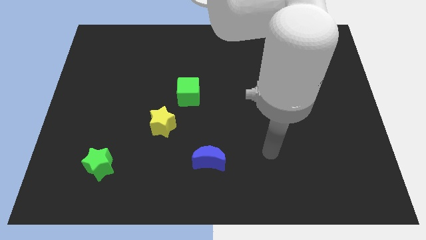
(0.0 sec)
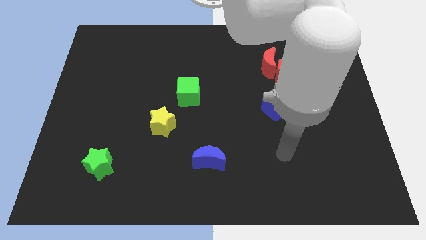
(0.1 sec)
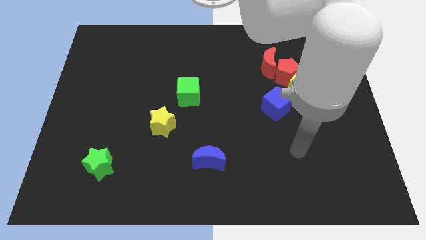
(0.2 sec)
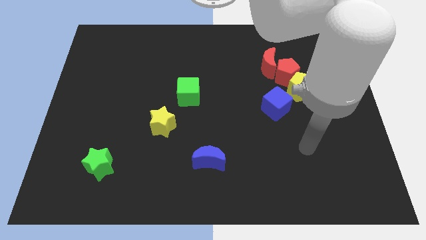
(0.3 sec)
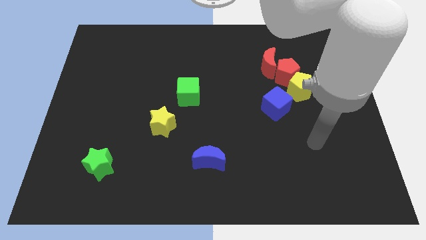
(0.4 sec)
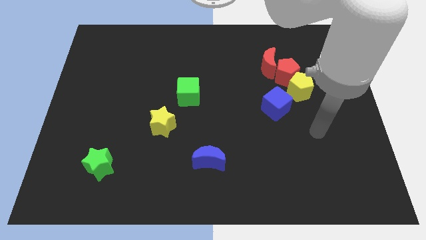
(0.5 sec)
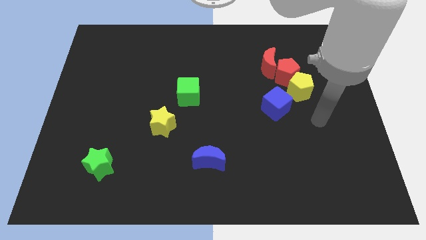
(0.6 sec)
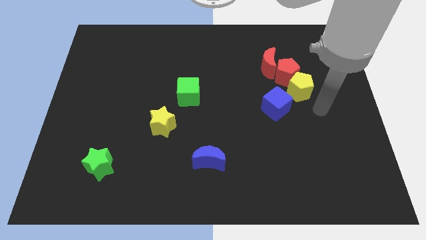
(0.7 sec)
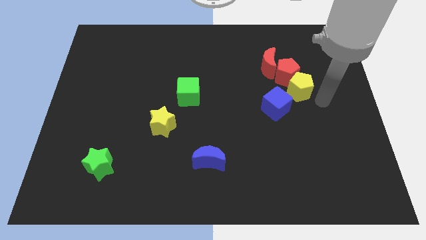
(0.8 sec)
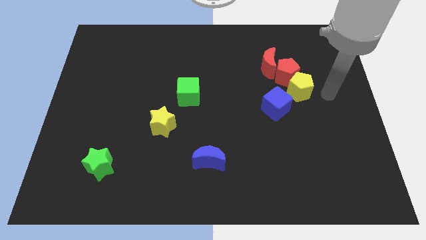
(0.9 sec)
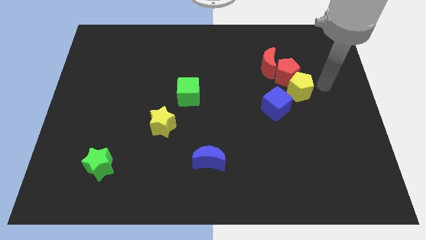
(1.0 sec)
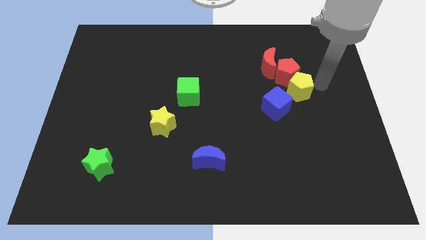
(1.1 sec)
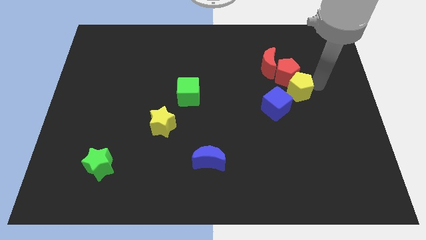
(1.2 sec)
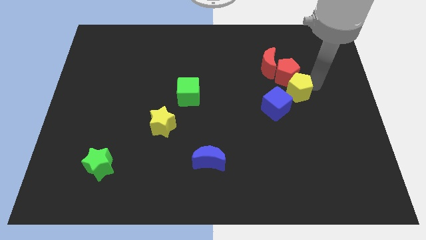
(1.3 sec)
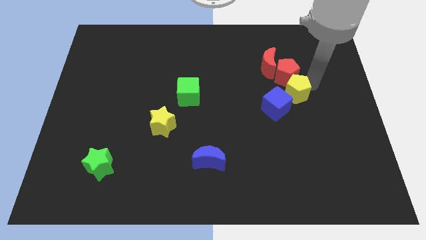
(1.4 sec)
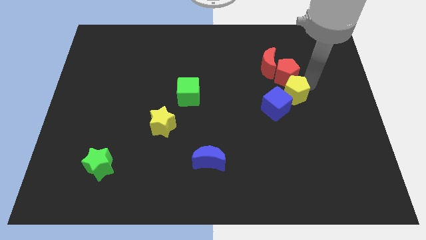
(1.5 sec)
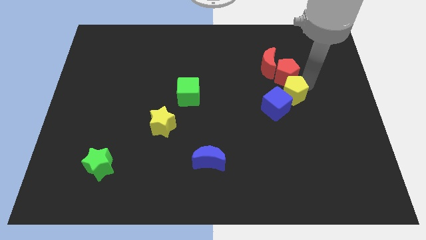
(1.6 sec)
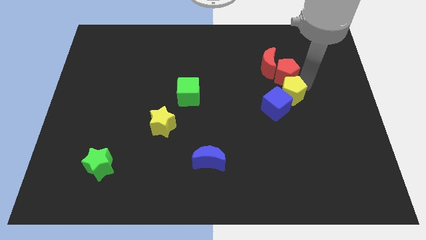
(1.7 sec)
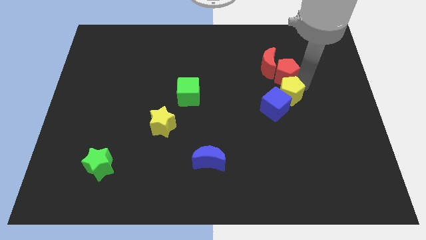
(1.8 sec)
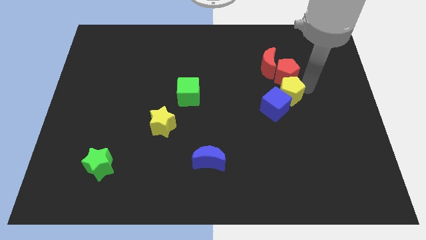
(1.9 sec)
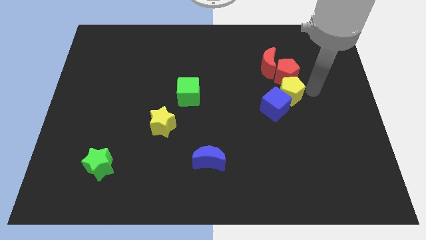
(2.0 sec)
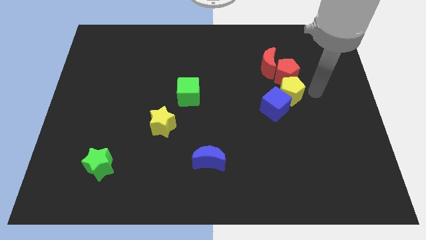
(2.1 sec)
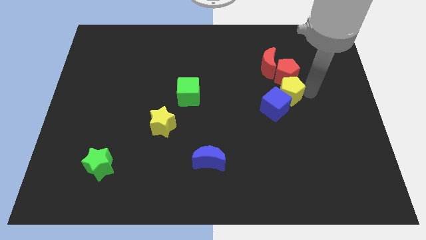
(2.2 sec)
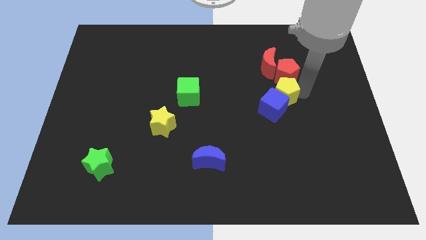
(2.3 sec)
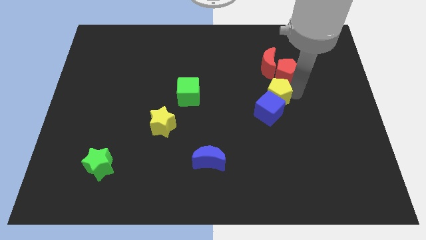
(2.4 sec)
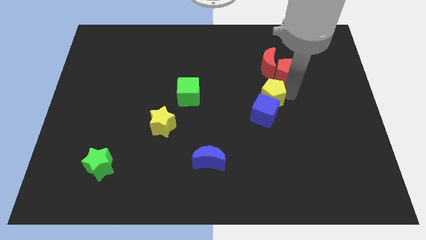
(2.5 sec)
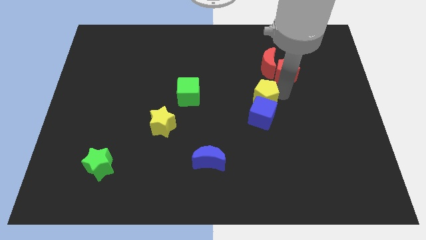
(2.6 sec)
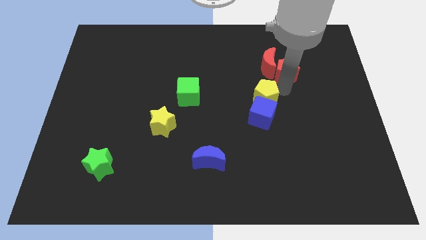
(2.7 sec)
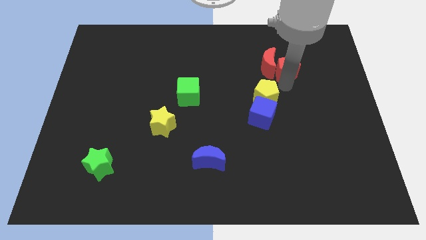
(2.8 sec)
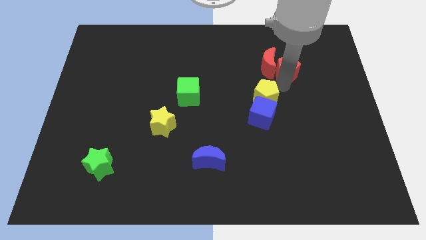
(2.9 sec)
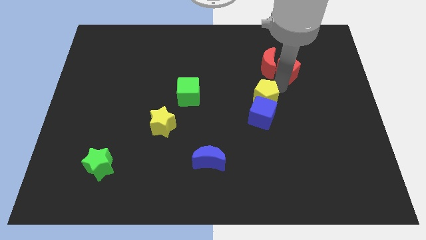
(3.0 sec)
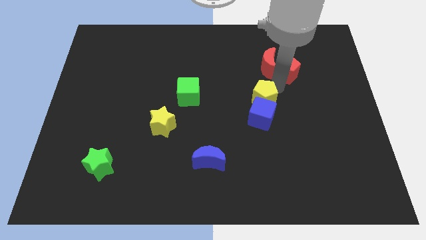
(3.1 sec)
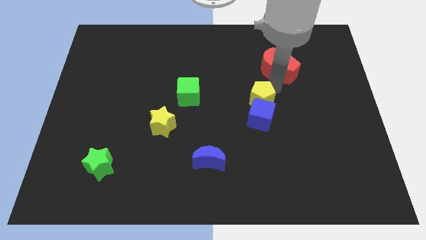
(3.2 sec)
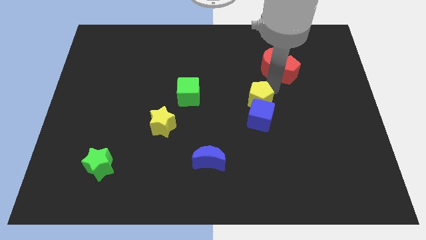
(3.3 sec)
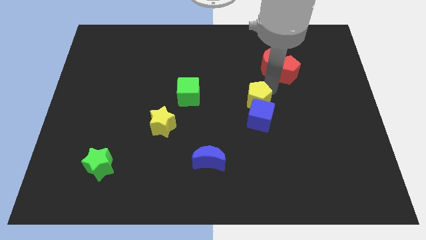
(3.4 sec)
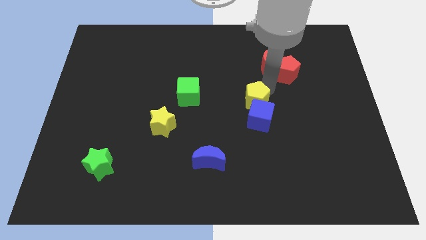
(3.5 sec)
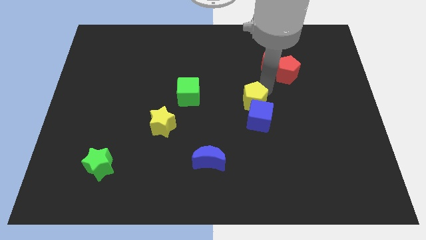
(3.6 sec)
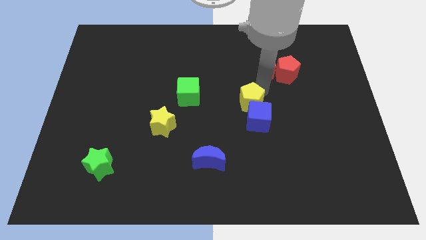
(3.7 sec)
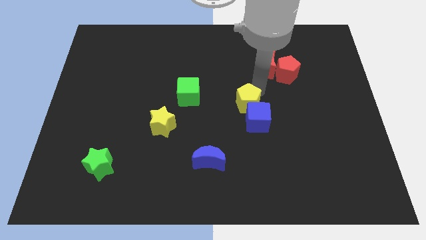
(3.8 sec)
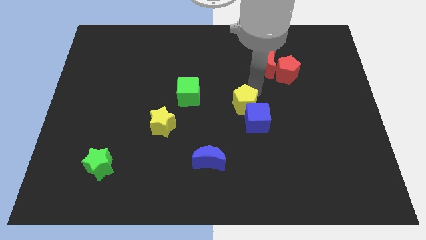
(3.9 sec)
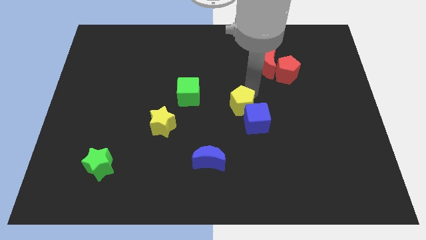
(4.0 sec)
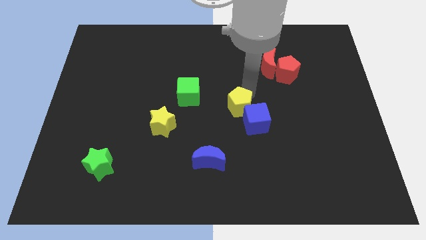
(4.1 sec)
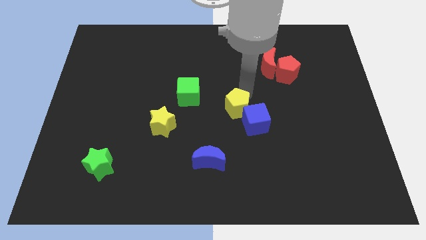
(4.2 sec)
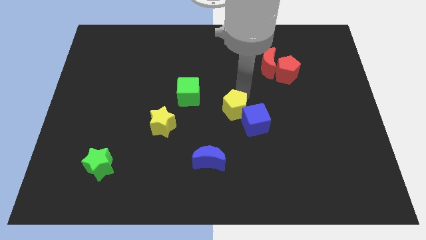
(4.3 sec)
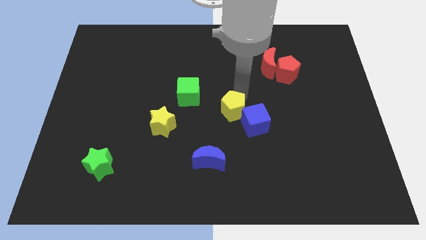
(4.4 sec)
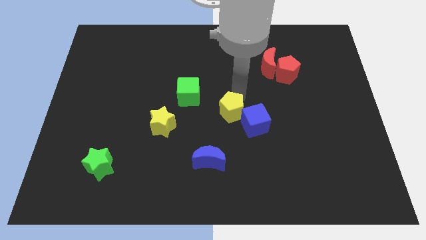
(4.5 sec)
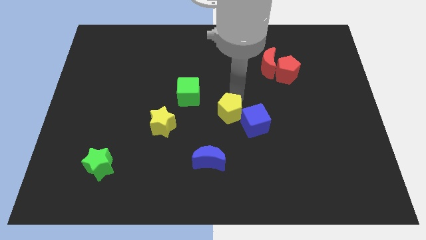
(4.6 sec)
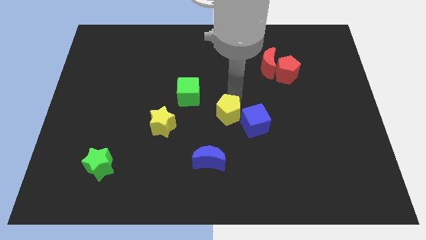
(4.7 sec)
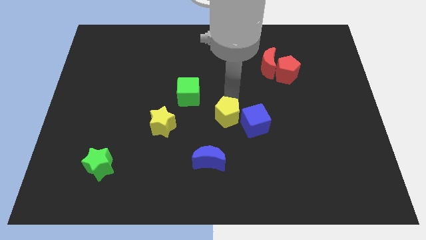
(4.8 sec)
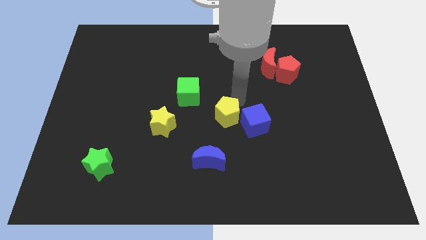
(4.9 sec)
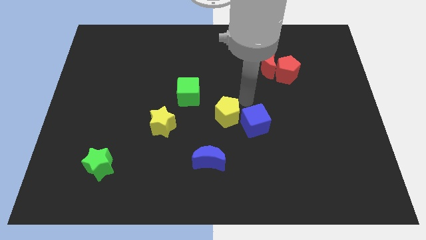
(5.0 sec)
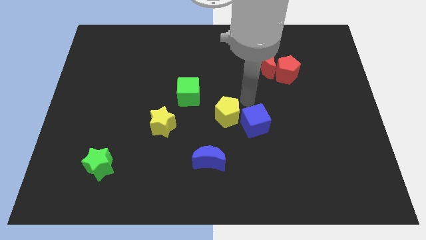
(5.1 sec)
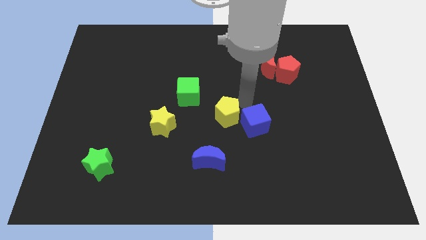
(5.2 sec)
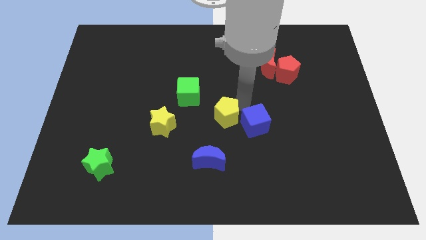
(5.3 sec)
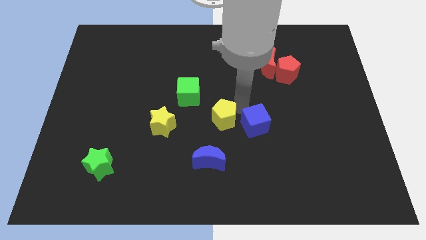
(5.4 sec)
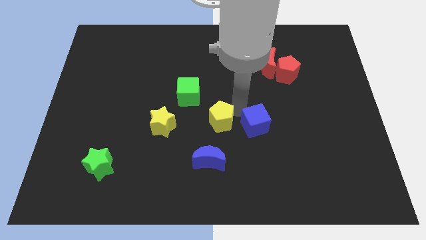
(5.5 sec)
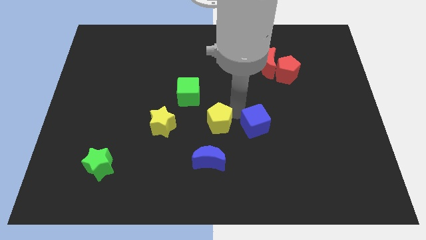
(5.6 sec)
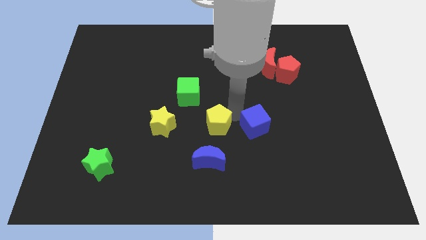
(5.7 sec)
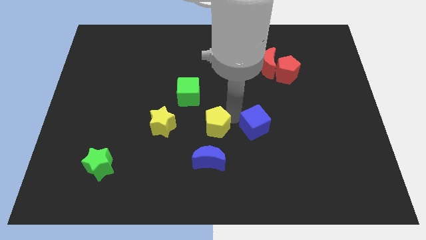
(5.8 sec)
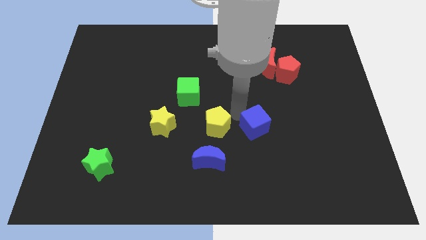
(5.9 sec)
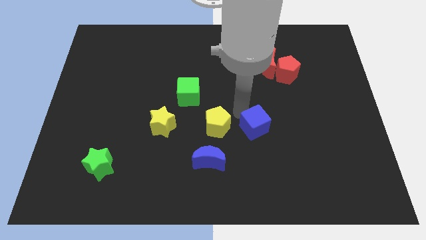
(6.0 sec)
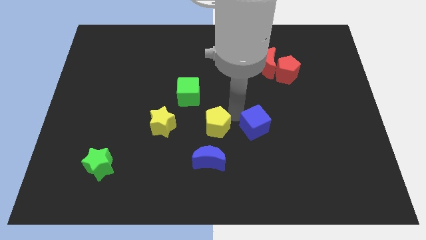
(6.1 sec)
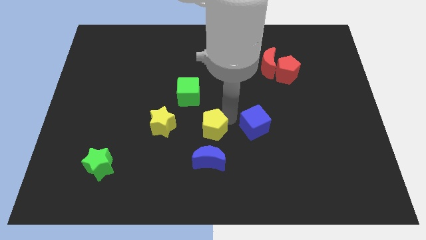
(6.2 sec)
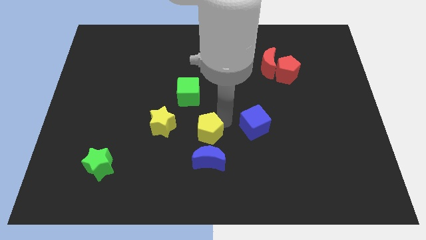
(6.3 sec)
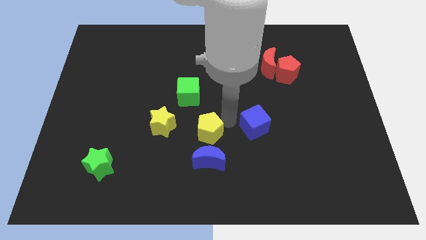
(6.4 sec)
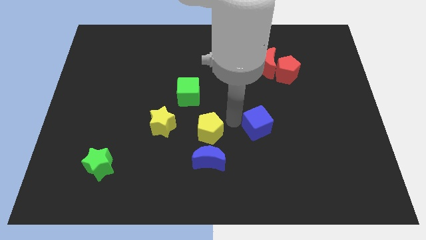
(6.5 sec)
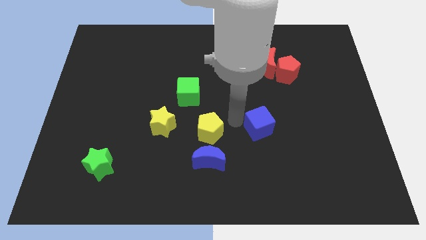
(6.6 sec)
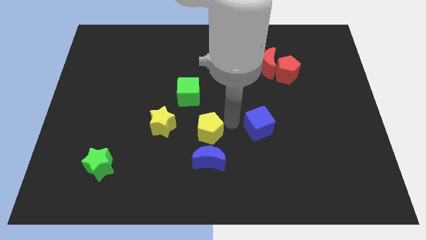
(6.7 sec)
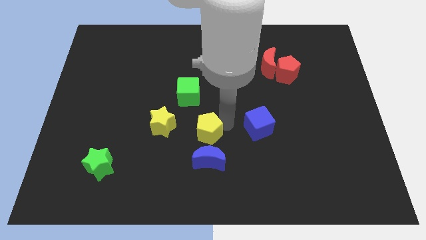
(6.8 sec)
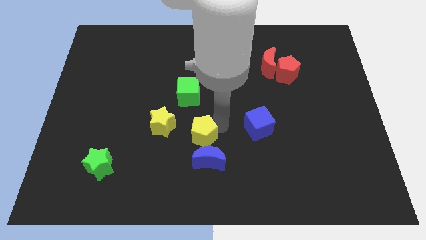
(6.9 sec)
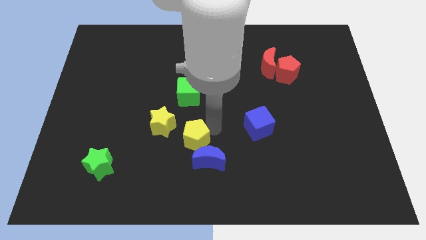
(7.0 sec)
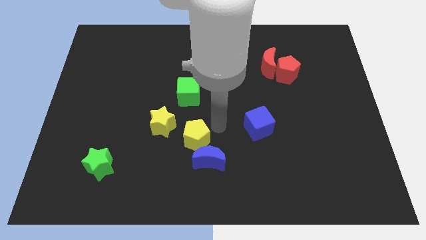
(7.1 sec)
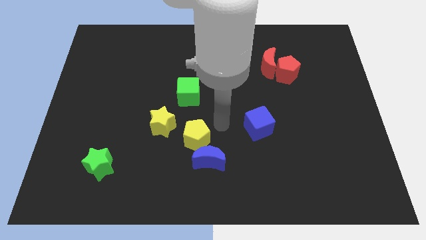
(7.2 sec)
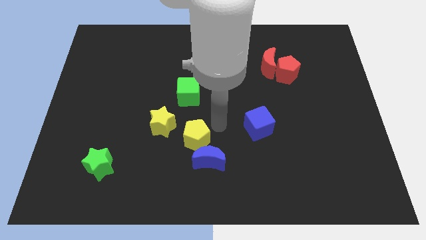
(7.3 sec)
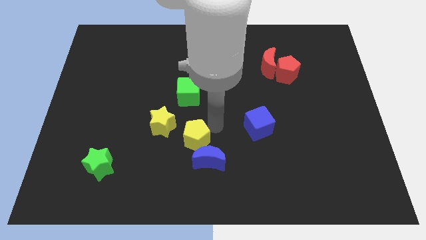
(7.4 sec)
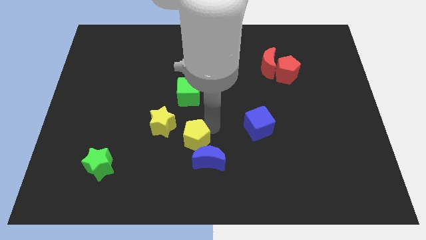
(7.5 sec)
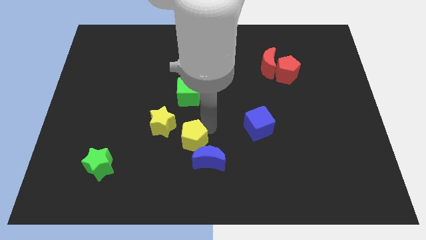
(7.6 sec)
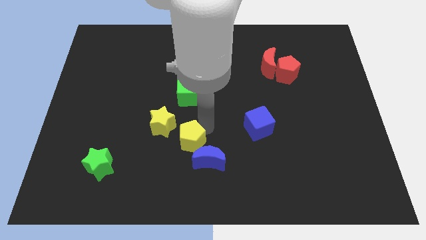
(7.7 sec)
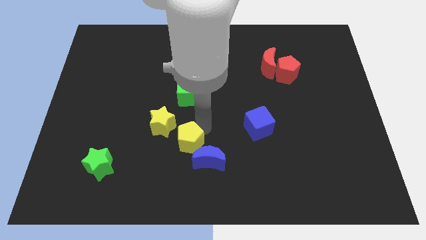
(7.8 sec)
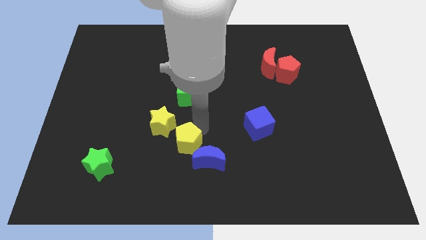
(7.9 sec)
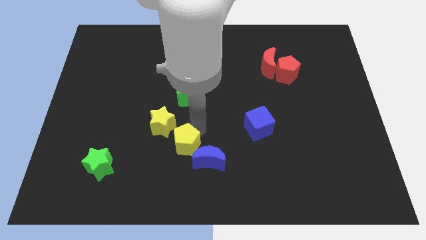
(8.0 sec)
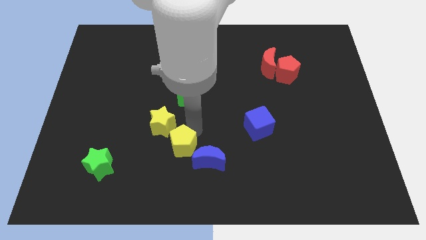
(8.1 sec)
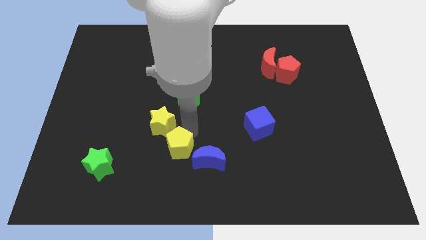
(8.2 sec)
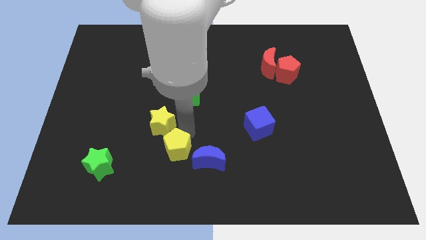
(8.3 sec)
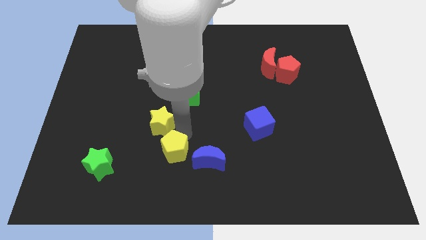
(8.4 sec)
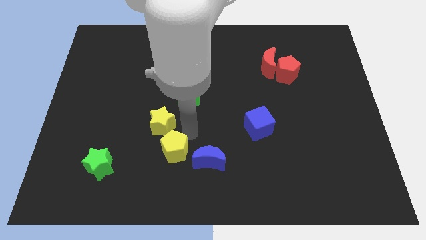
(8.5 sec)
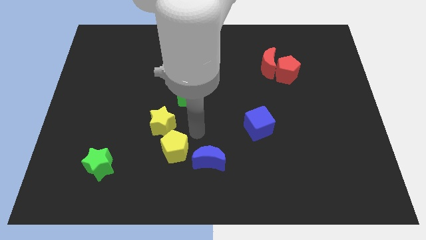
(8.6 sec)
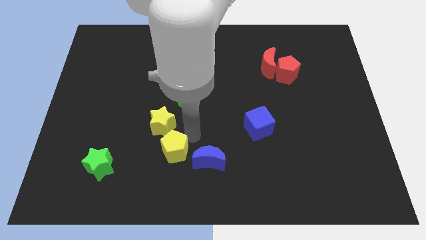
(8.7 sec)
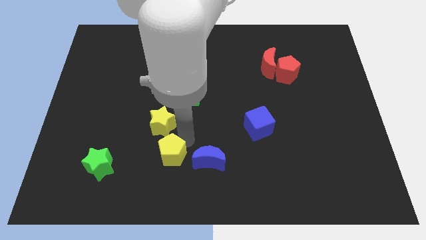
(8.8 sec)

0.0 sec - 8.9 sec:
put the yellow pentagon to the right of the green star
